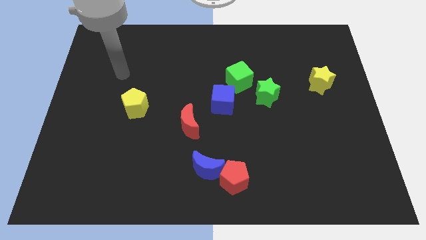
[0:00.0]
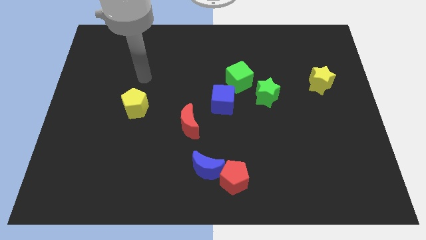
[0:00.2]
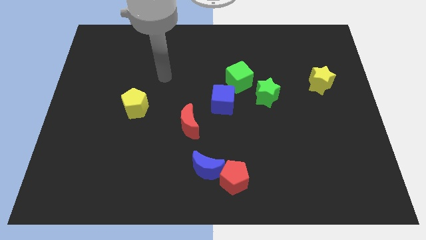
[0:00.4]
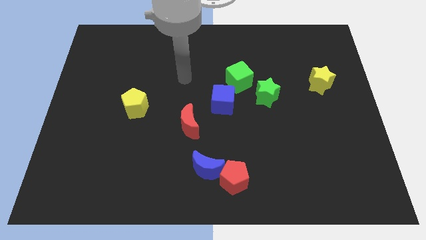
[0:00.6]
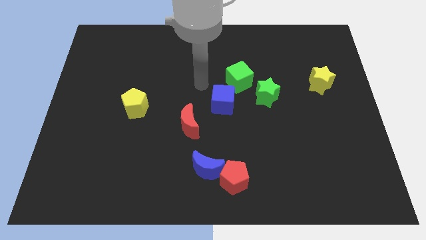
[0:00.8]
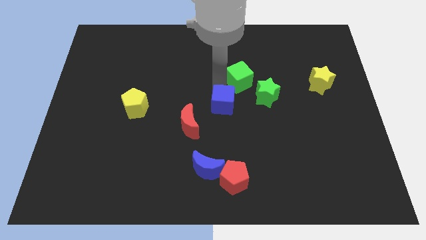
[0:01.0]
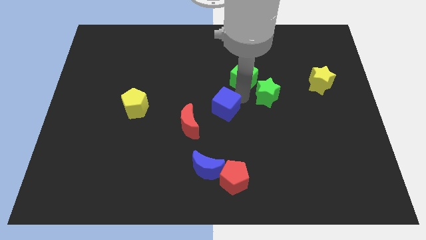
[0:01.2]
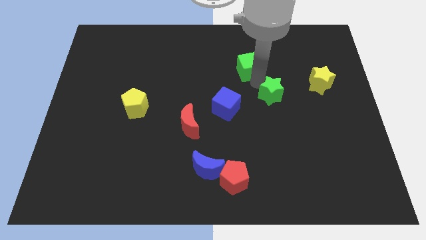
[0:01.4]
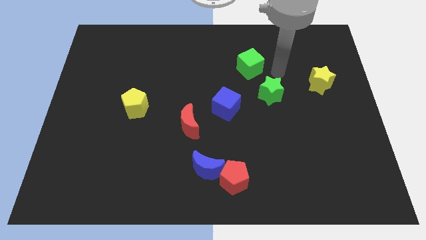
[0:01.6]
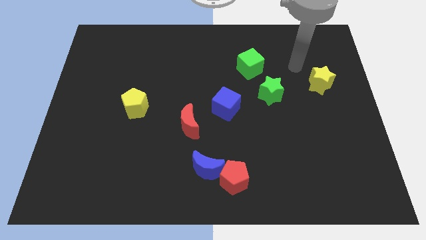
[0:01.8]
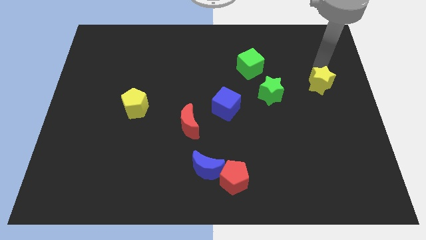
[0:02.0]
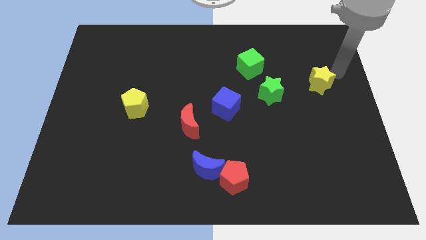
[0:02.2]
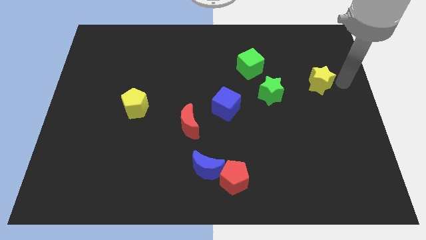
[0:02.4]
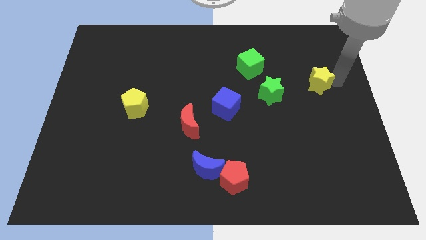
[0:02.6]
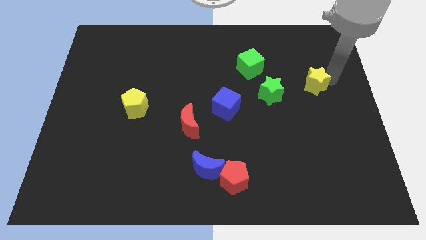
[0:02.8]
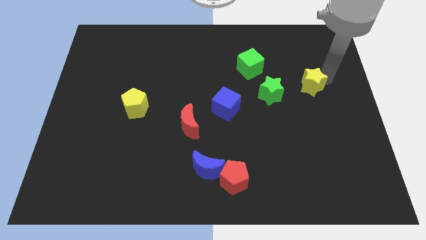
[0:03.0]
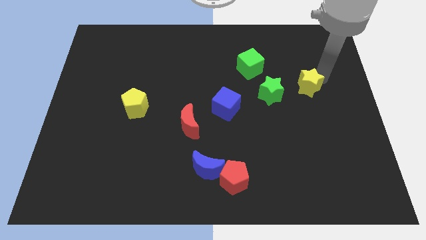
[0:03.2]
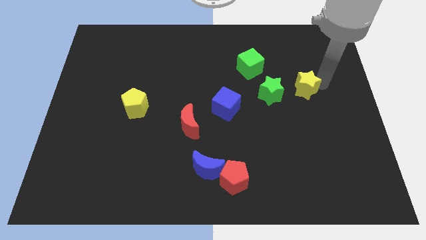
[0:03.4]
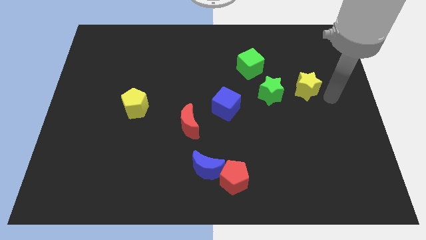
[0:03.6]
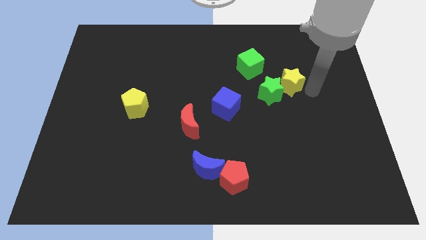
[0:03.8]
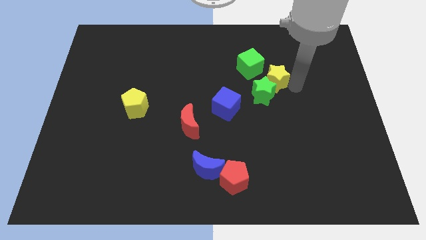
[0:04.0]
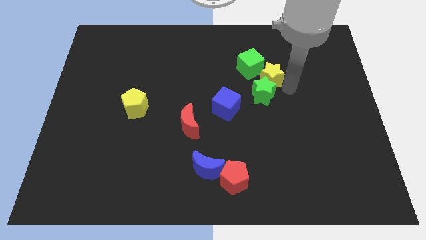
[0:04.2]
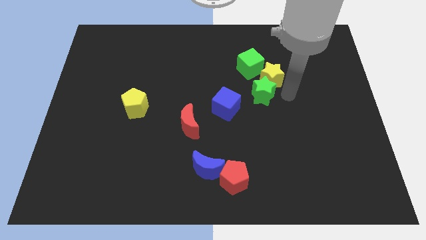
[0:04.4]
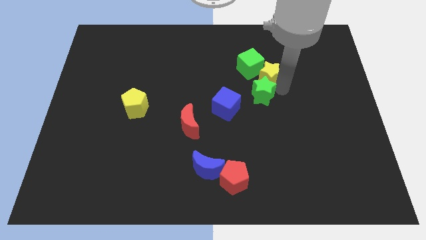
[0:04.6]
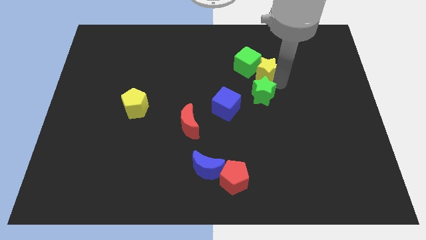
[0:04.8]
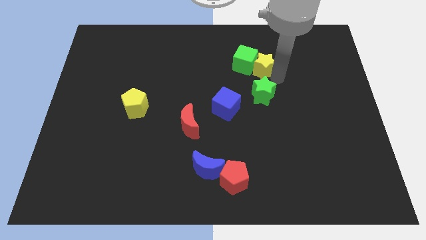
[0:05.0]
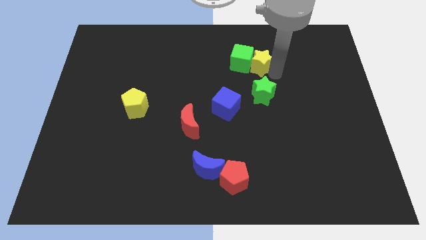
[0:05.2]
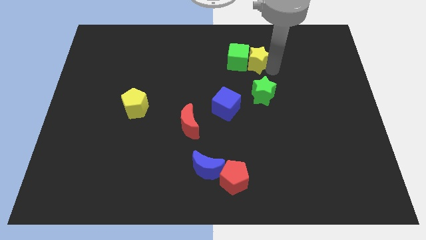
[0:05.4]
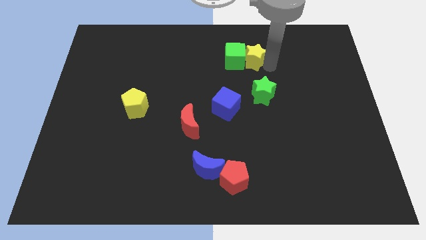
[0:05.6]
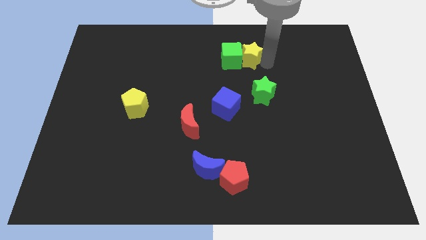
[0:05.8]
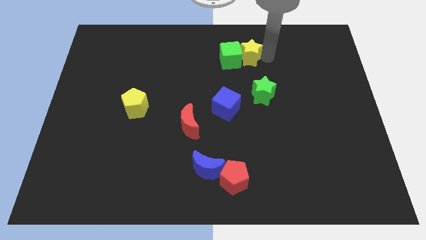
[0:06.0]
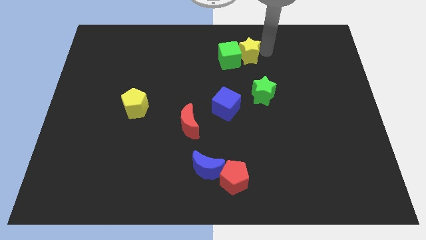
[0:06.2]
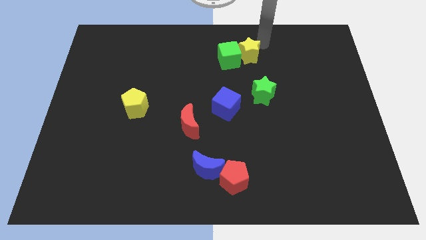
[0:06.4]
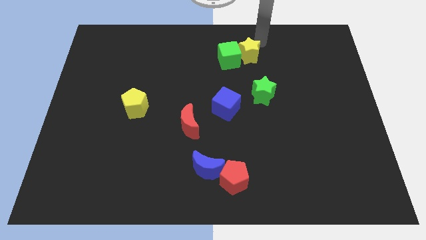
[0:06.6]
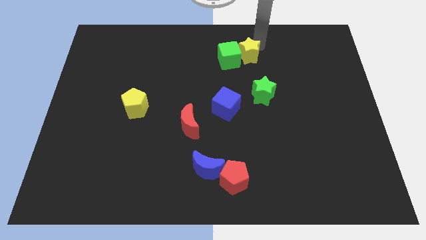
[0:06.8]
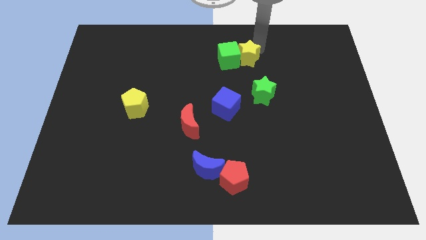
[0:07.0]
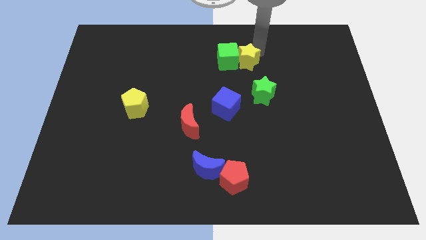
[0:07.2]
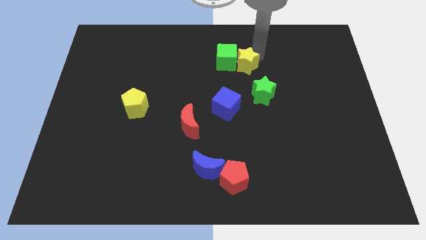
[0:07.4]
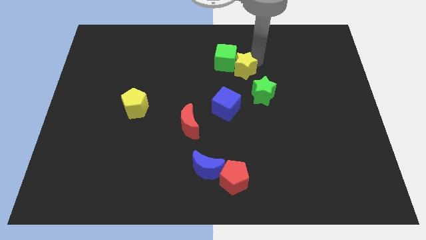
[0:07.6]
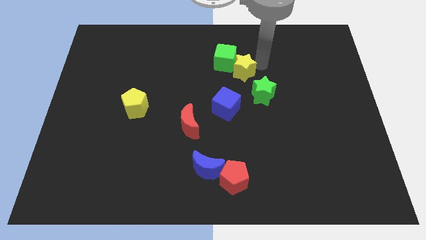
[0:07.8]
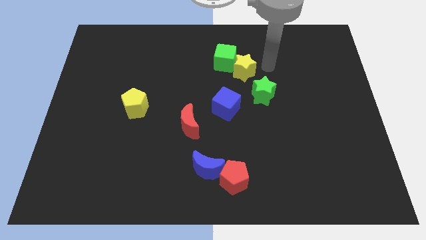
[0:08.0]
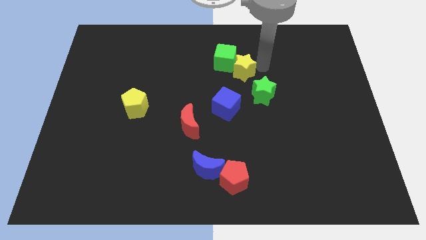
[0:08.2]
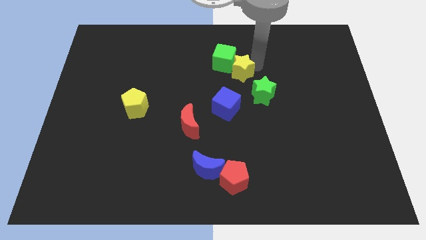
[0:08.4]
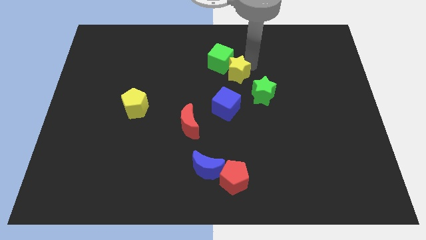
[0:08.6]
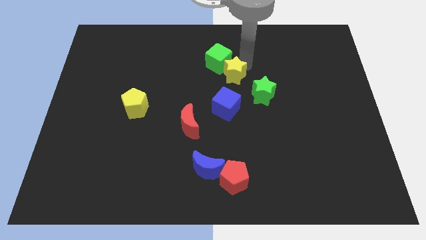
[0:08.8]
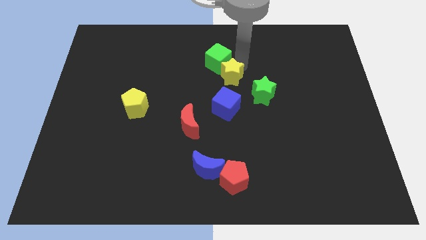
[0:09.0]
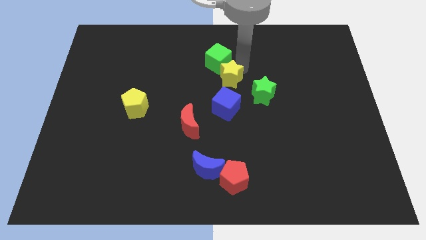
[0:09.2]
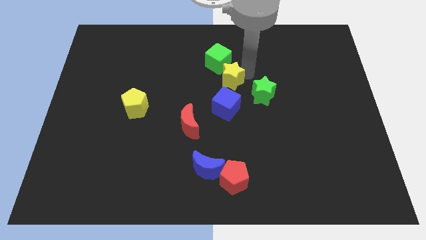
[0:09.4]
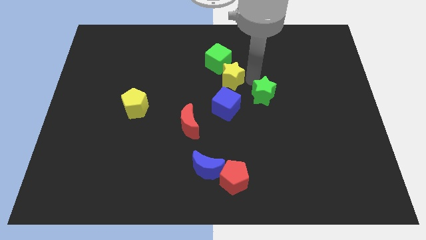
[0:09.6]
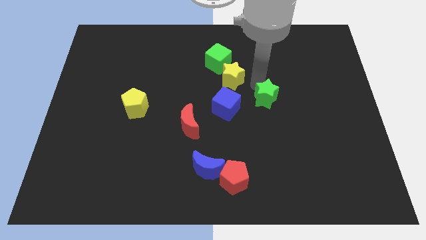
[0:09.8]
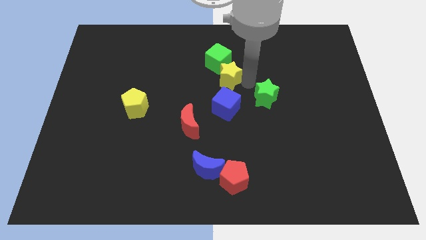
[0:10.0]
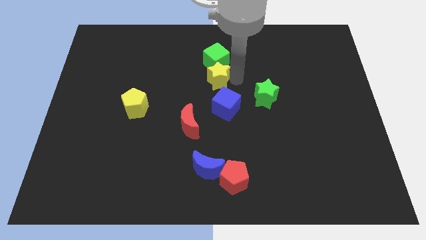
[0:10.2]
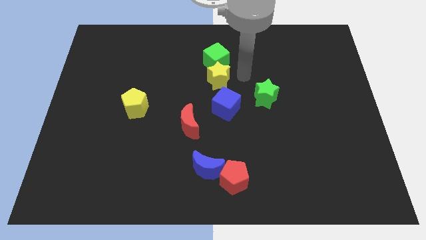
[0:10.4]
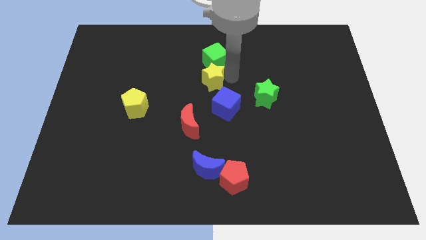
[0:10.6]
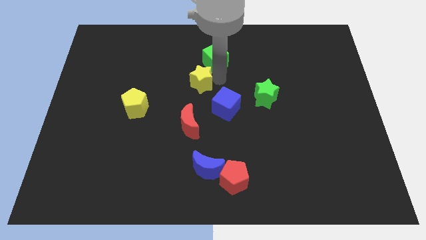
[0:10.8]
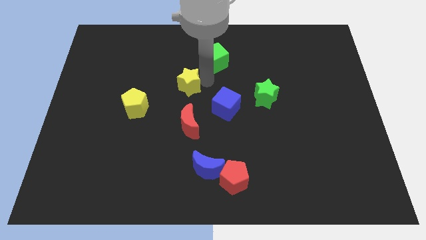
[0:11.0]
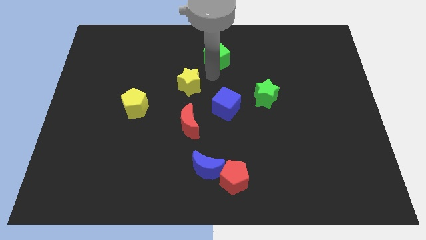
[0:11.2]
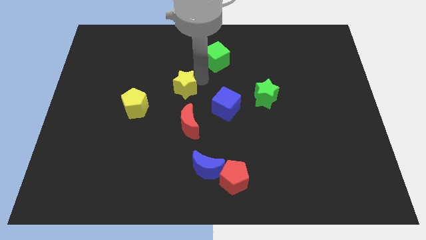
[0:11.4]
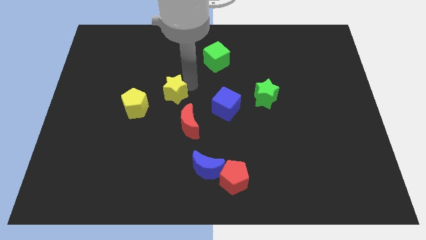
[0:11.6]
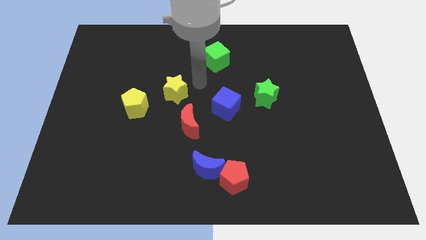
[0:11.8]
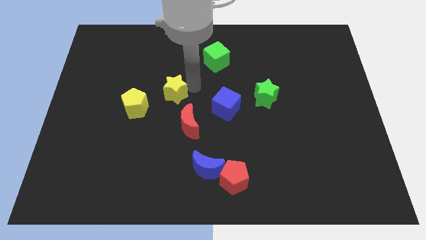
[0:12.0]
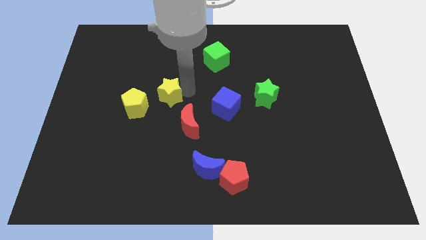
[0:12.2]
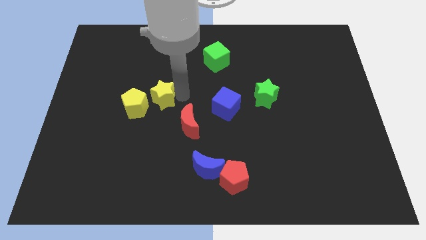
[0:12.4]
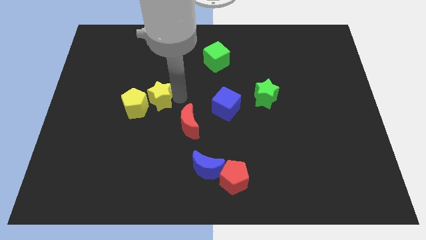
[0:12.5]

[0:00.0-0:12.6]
slide the yellow star next to the yellow pentagon

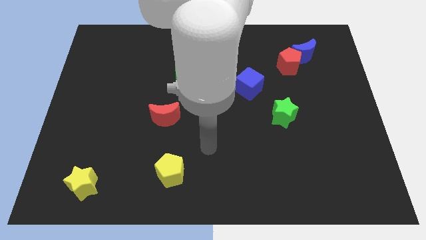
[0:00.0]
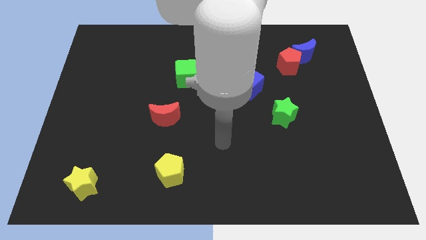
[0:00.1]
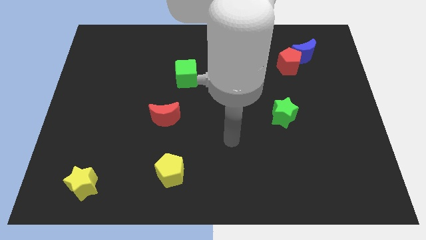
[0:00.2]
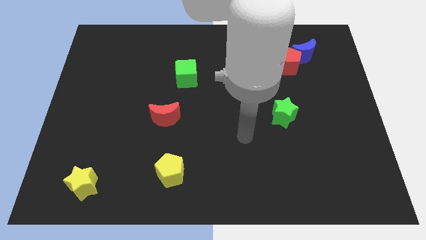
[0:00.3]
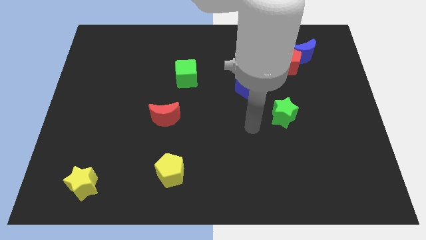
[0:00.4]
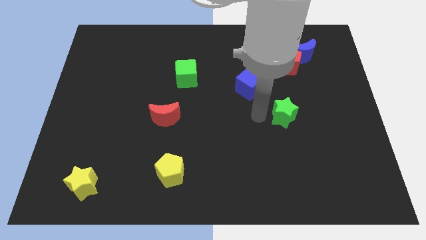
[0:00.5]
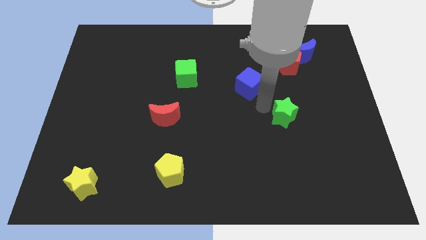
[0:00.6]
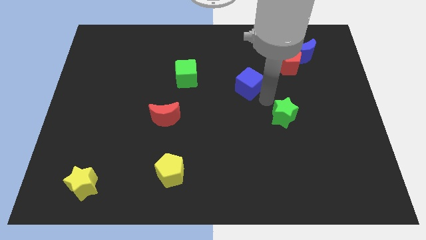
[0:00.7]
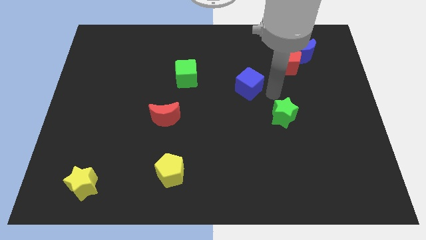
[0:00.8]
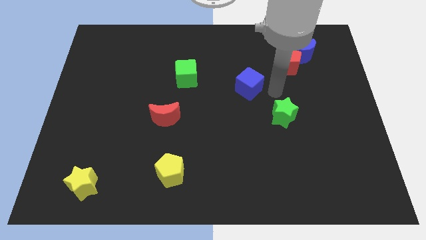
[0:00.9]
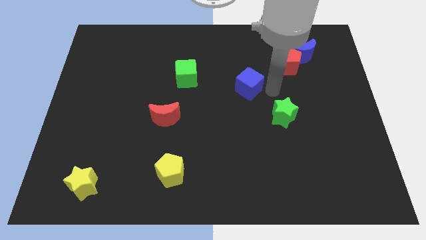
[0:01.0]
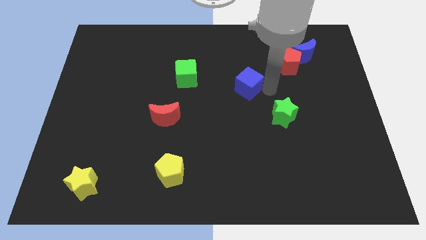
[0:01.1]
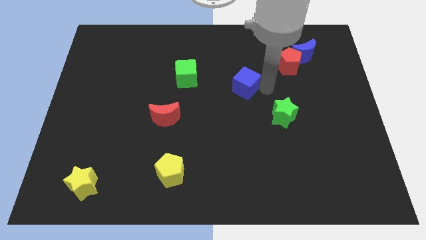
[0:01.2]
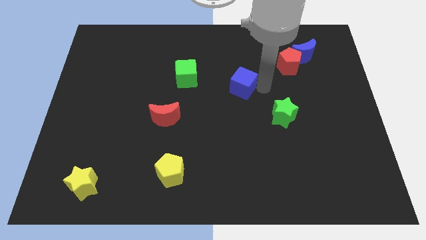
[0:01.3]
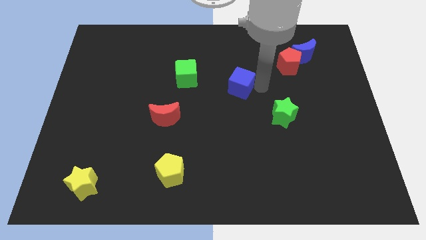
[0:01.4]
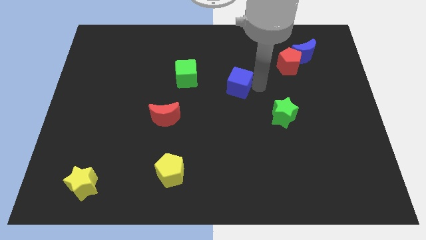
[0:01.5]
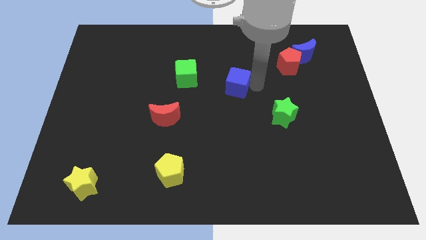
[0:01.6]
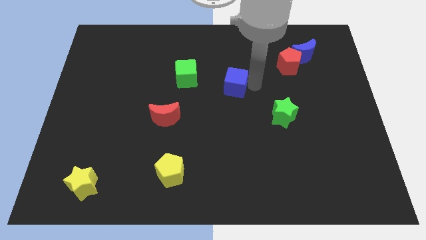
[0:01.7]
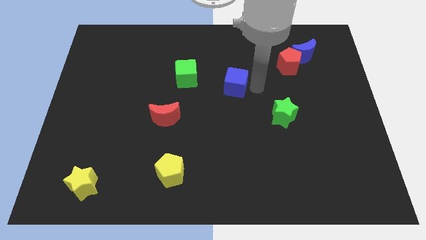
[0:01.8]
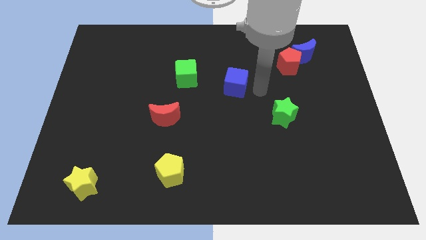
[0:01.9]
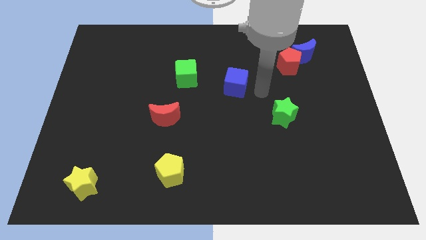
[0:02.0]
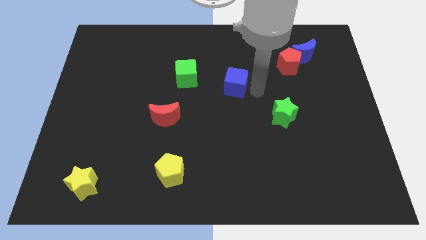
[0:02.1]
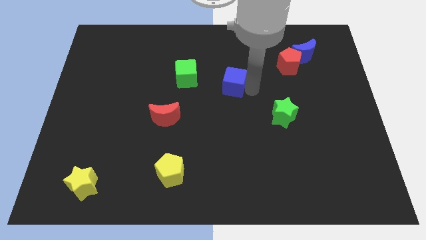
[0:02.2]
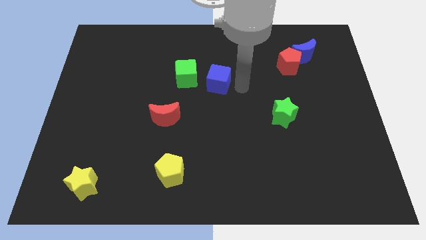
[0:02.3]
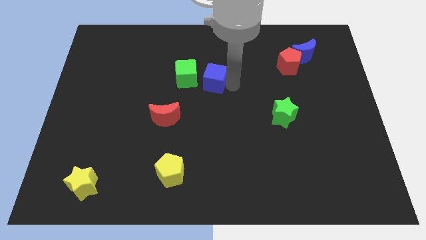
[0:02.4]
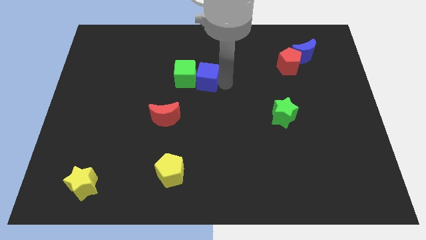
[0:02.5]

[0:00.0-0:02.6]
push the blue cube to the green cube
